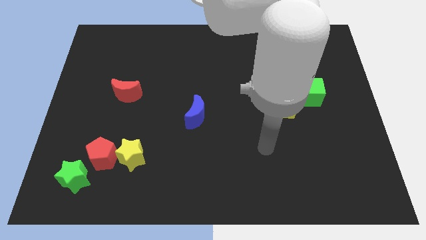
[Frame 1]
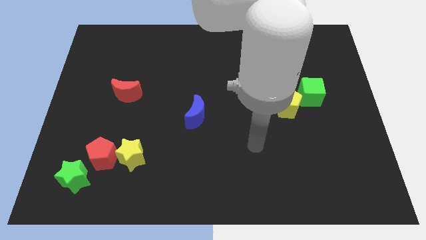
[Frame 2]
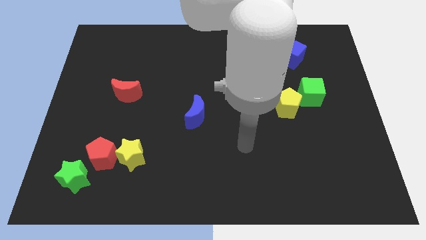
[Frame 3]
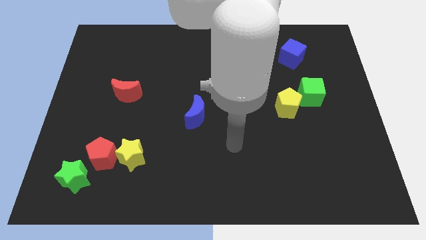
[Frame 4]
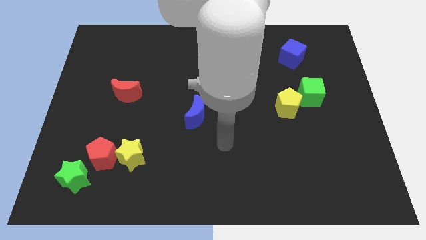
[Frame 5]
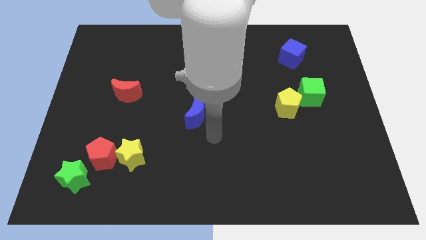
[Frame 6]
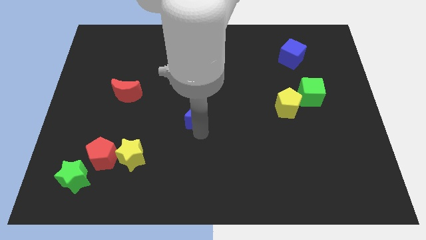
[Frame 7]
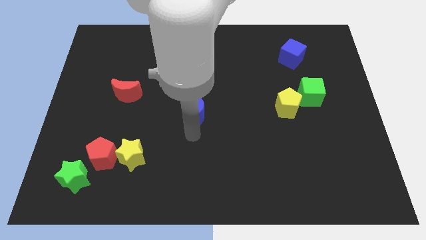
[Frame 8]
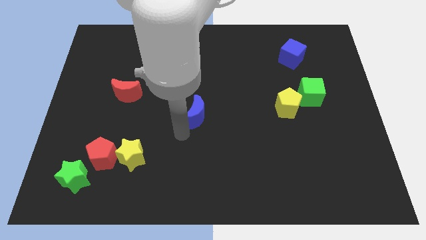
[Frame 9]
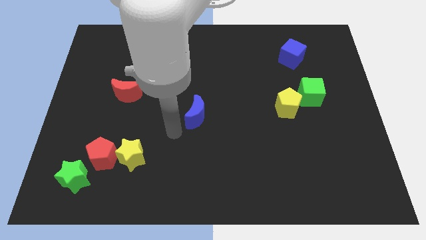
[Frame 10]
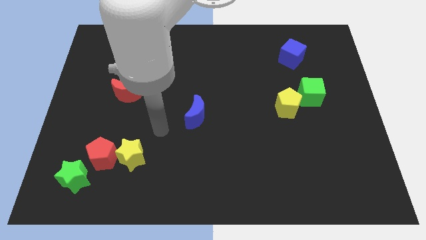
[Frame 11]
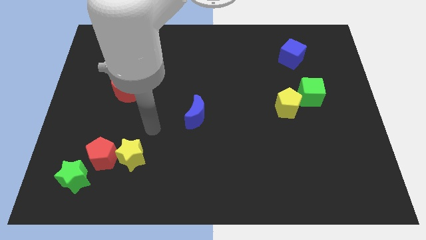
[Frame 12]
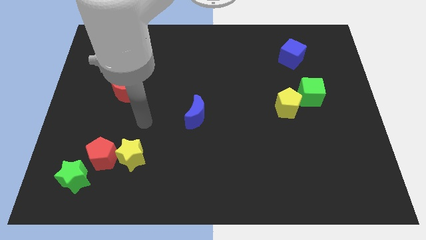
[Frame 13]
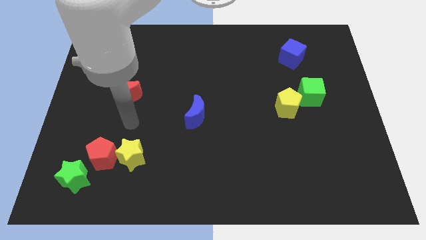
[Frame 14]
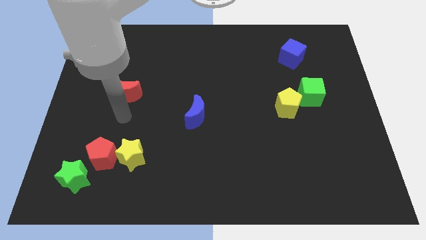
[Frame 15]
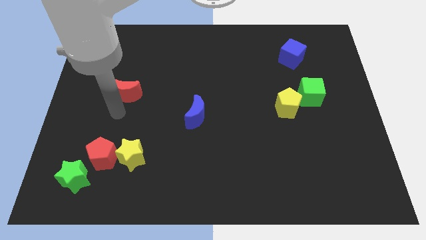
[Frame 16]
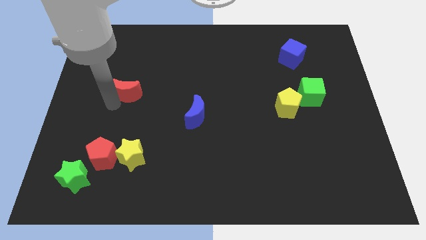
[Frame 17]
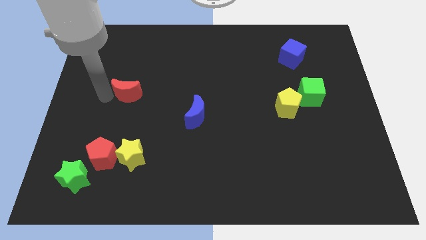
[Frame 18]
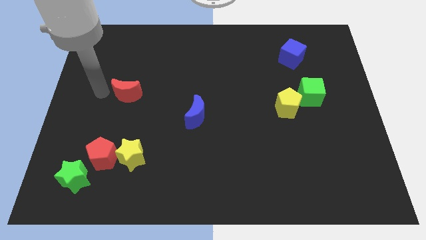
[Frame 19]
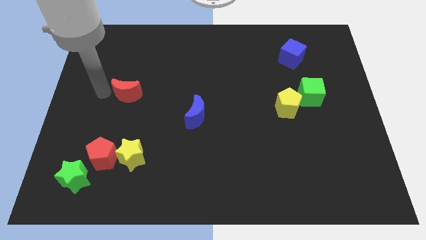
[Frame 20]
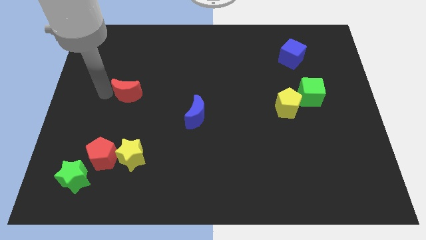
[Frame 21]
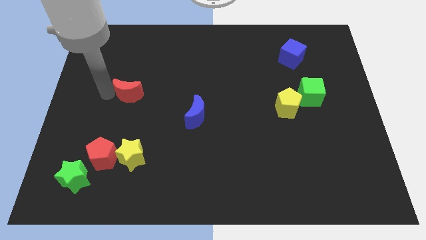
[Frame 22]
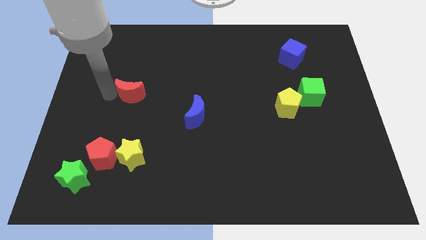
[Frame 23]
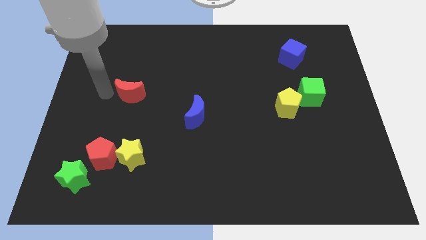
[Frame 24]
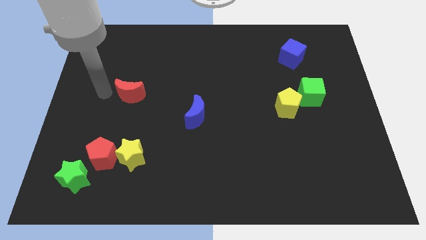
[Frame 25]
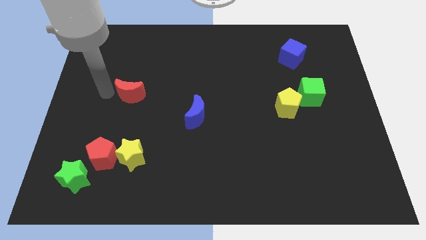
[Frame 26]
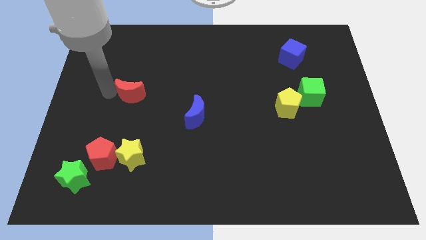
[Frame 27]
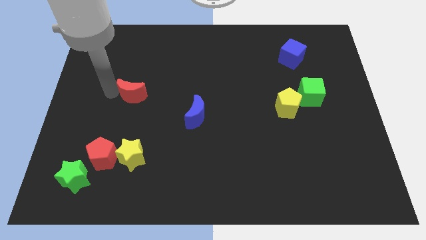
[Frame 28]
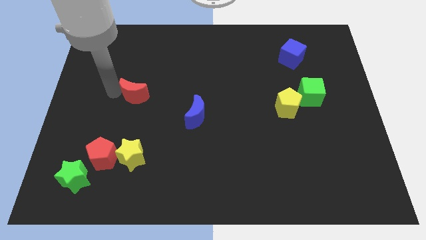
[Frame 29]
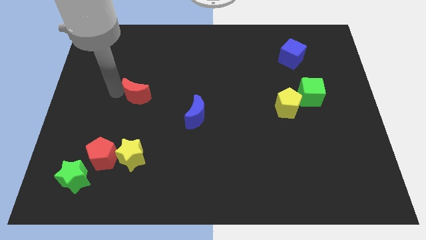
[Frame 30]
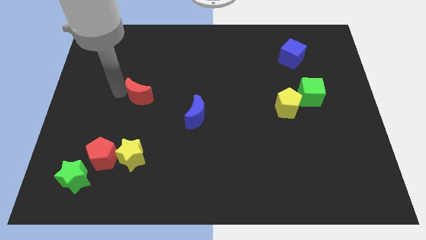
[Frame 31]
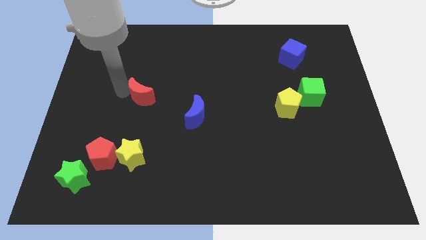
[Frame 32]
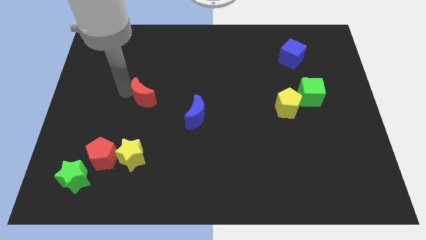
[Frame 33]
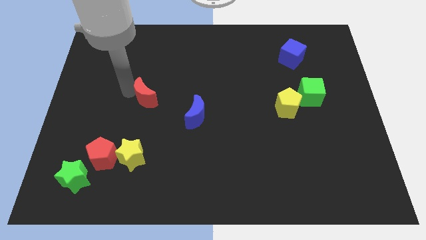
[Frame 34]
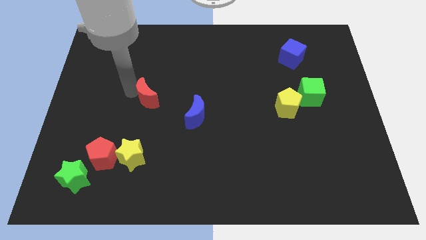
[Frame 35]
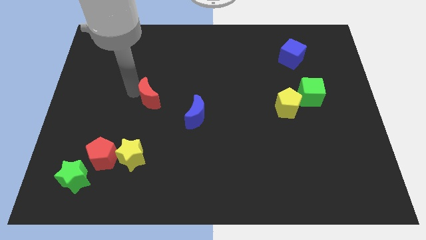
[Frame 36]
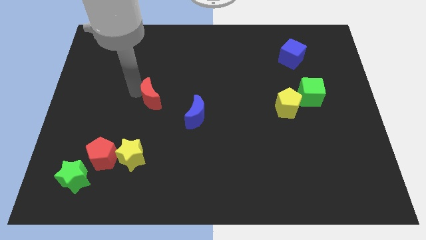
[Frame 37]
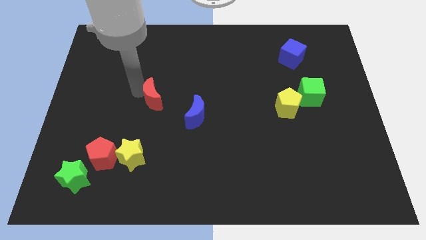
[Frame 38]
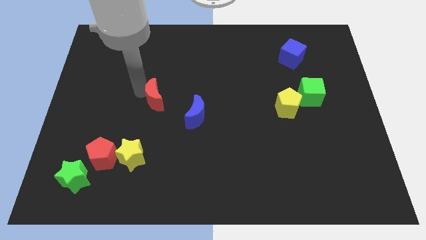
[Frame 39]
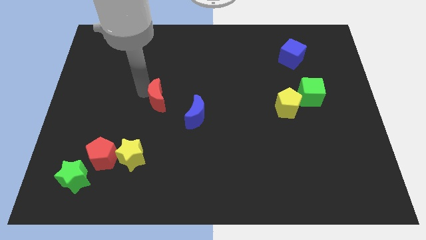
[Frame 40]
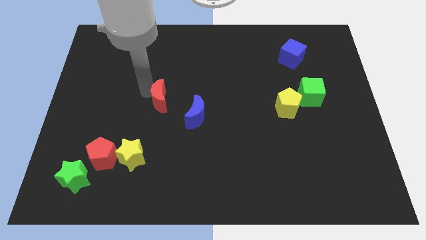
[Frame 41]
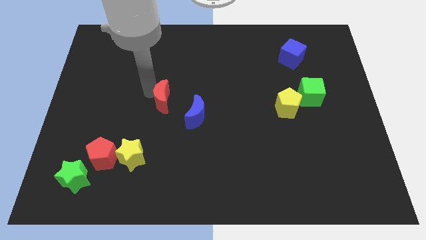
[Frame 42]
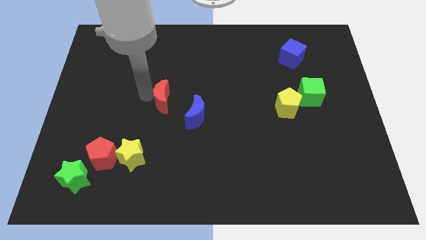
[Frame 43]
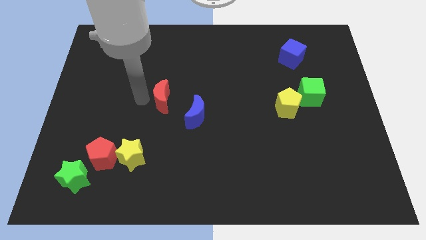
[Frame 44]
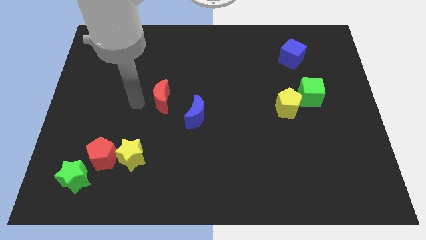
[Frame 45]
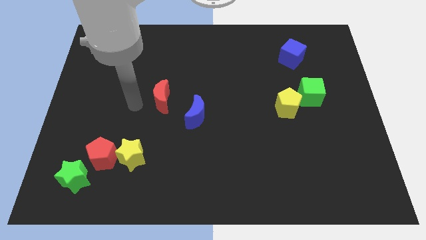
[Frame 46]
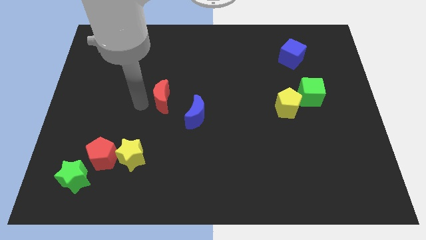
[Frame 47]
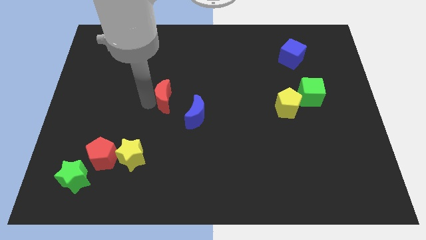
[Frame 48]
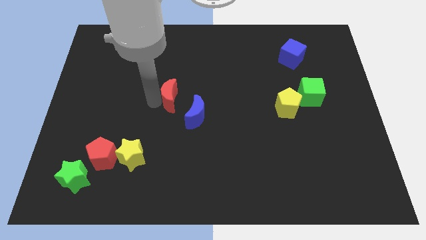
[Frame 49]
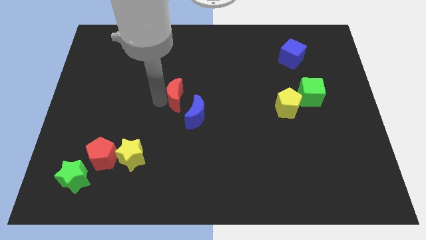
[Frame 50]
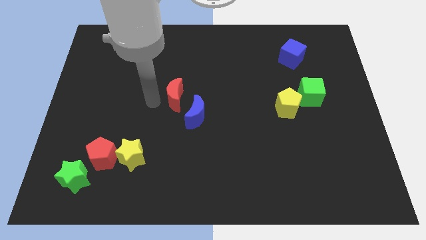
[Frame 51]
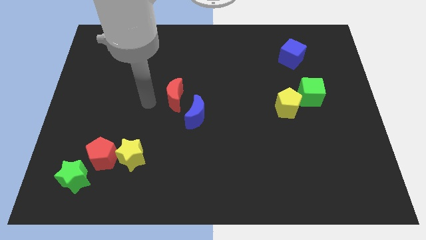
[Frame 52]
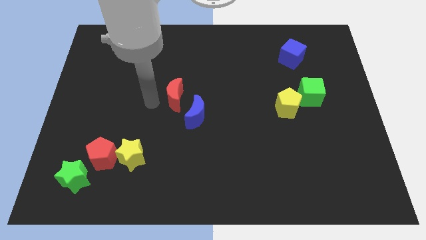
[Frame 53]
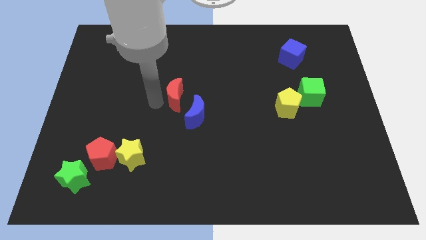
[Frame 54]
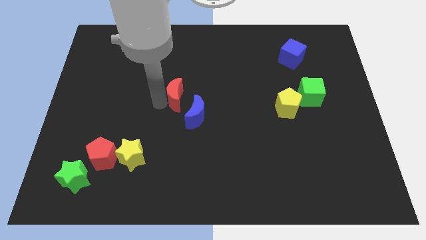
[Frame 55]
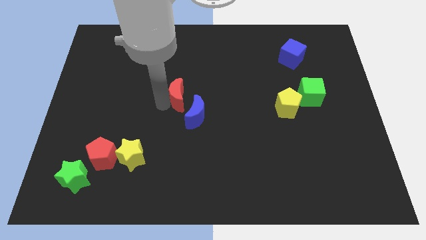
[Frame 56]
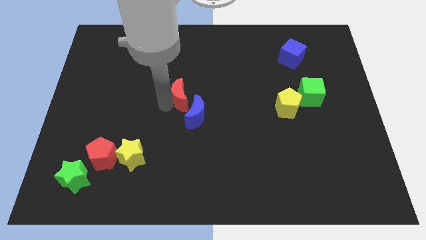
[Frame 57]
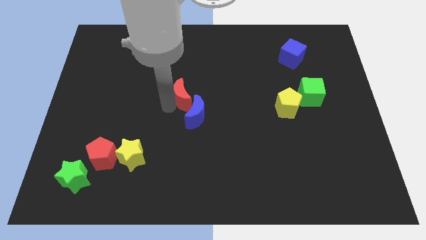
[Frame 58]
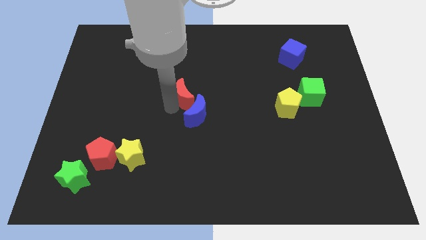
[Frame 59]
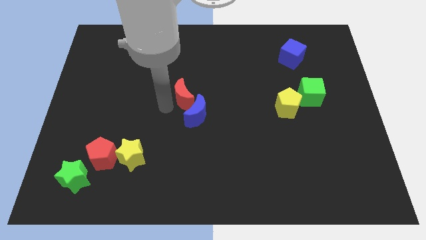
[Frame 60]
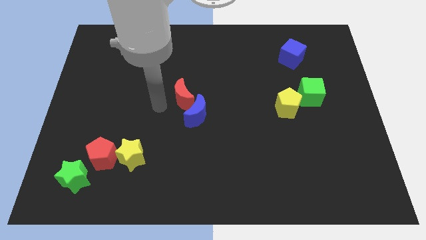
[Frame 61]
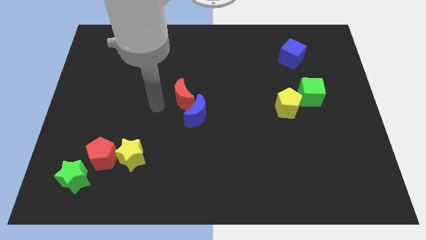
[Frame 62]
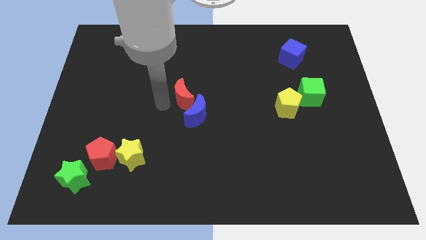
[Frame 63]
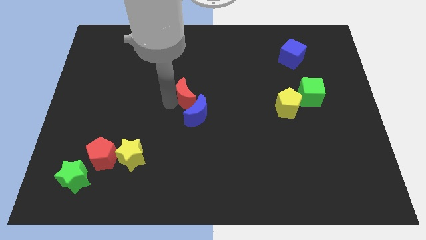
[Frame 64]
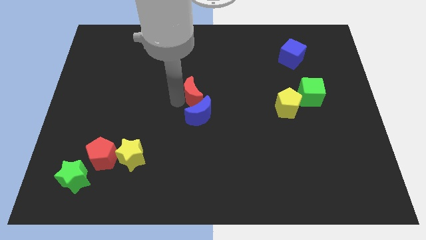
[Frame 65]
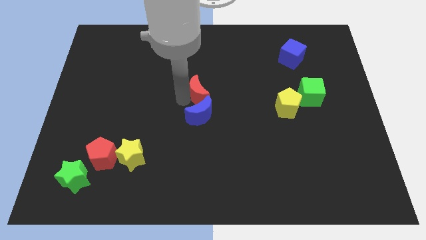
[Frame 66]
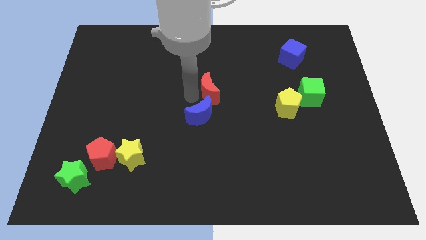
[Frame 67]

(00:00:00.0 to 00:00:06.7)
slide the red moon to the right

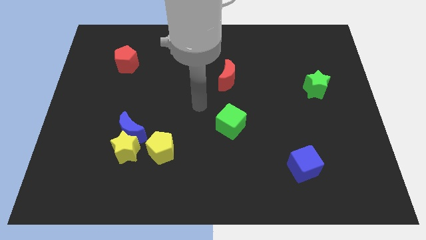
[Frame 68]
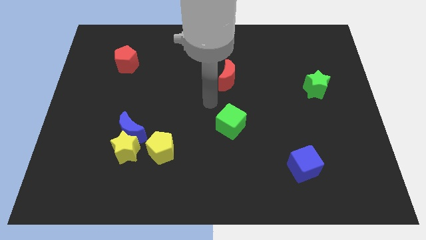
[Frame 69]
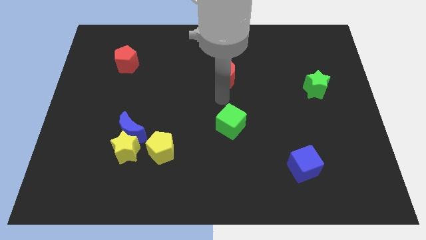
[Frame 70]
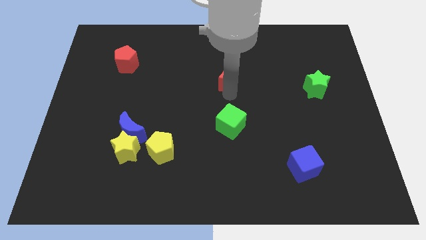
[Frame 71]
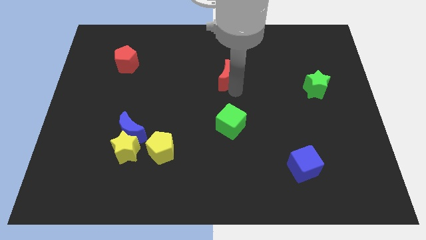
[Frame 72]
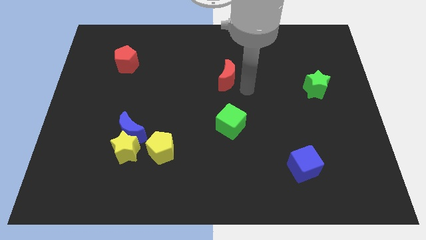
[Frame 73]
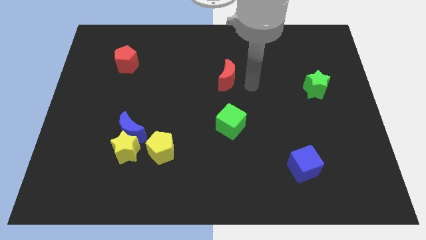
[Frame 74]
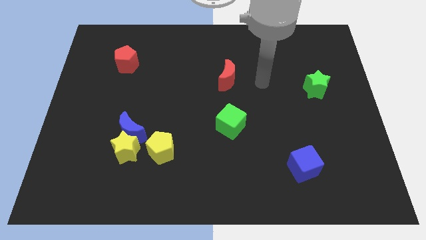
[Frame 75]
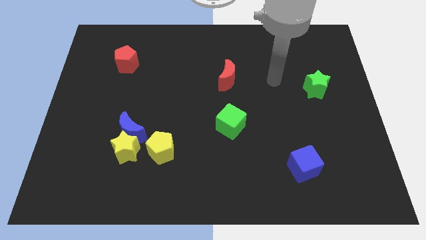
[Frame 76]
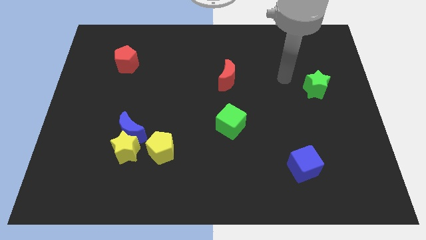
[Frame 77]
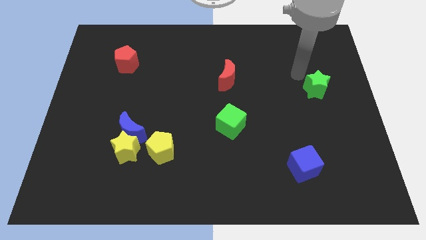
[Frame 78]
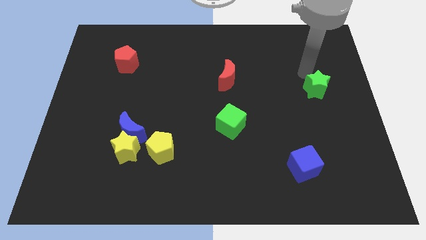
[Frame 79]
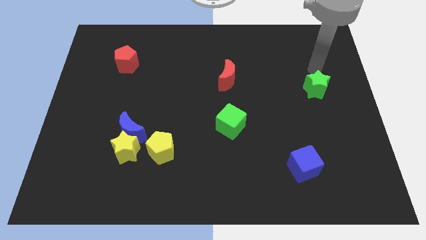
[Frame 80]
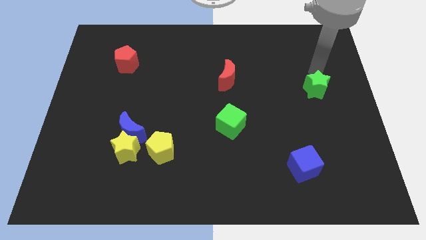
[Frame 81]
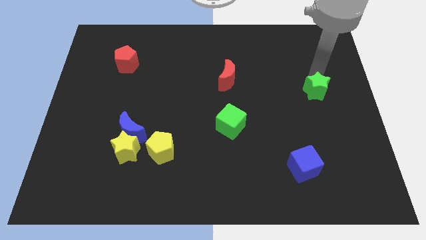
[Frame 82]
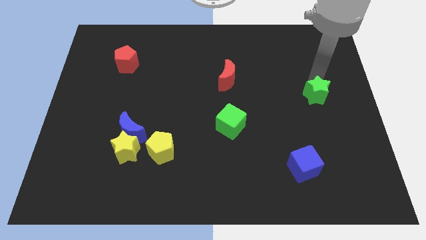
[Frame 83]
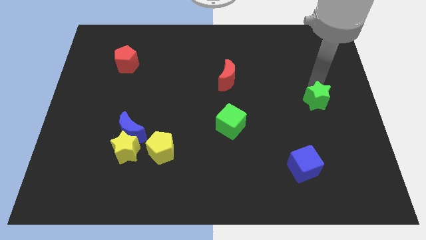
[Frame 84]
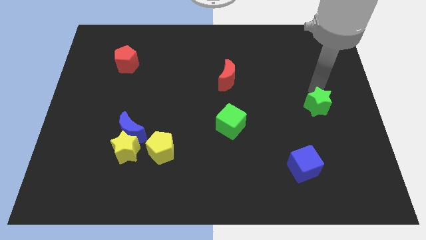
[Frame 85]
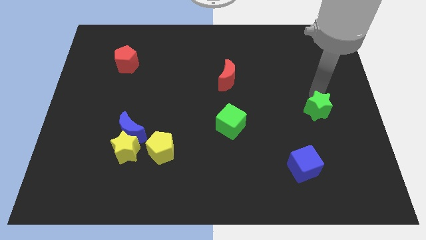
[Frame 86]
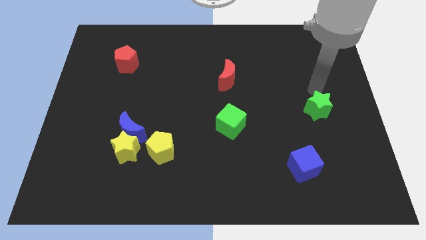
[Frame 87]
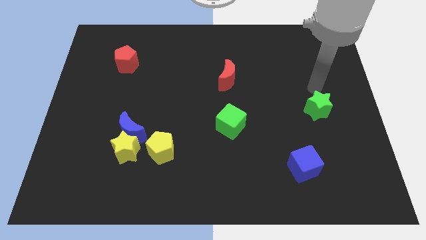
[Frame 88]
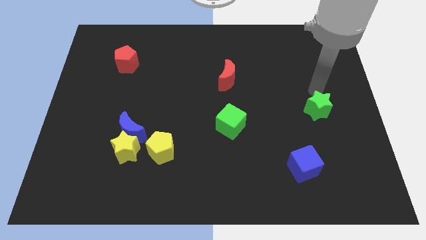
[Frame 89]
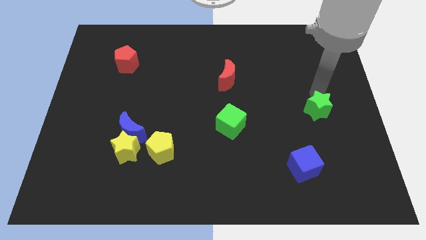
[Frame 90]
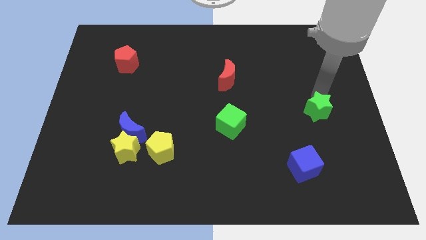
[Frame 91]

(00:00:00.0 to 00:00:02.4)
push the green star somewhat down
